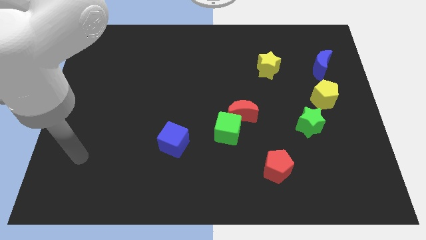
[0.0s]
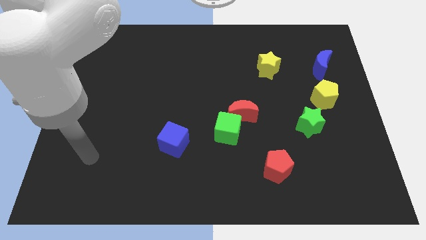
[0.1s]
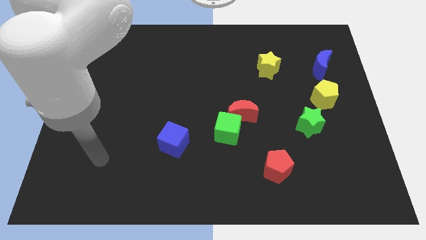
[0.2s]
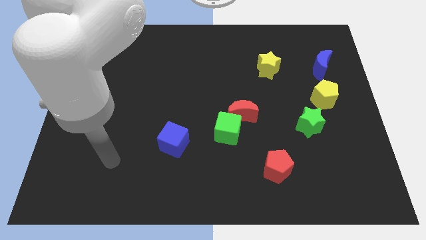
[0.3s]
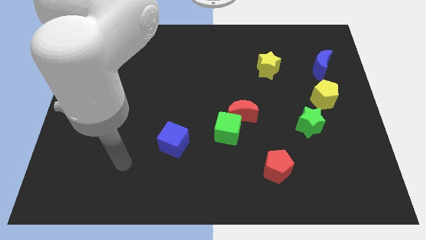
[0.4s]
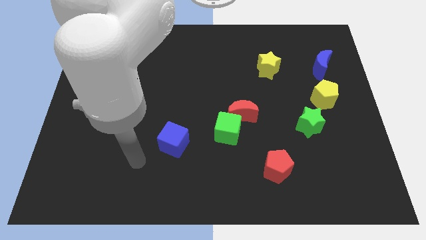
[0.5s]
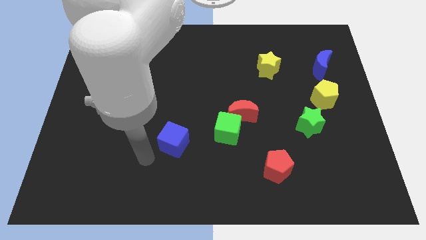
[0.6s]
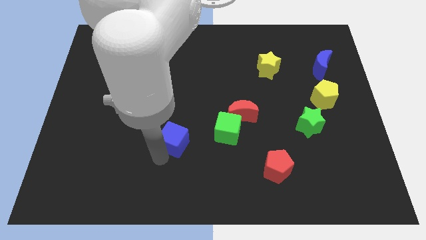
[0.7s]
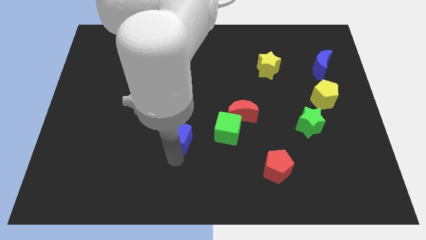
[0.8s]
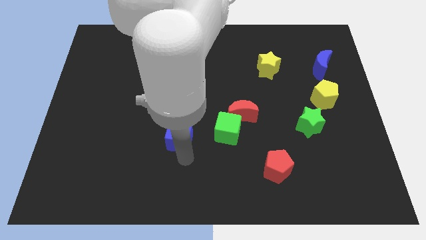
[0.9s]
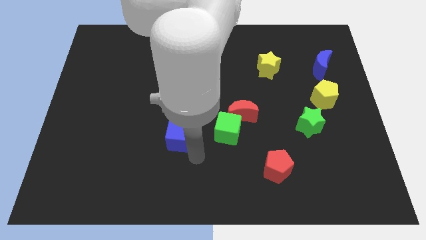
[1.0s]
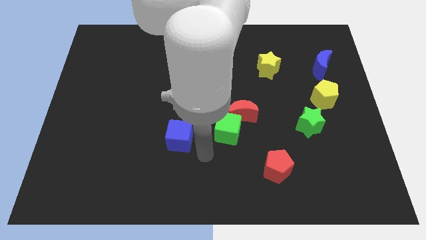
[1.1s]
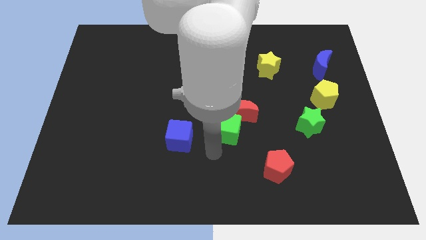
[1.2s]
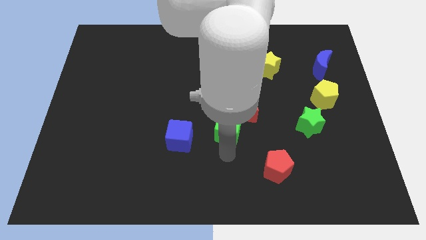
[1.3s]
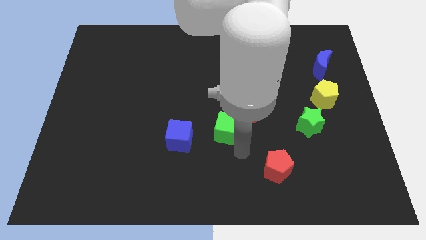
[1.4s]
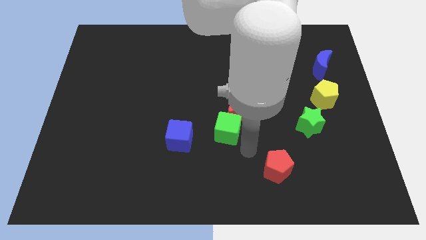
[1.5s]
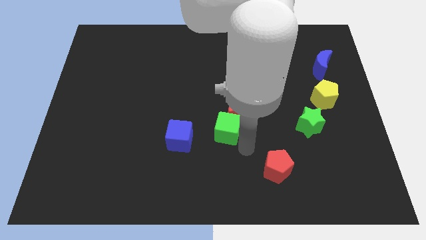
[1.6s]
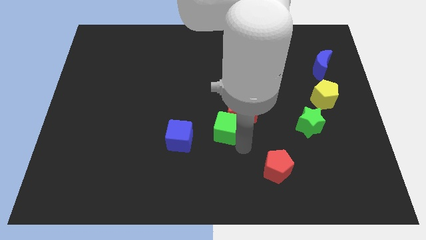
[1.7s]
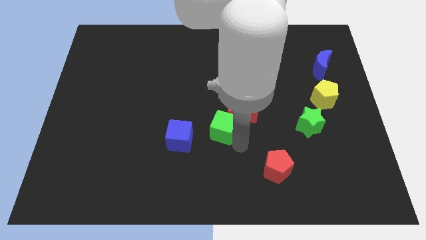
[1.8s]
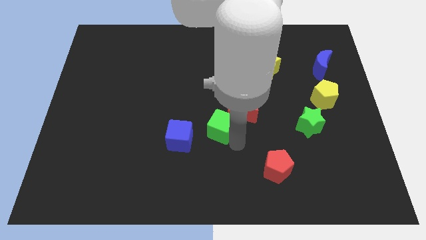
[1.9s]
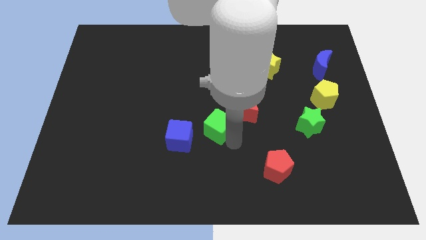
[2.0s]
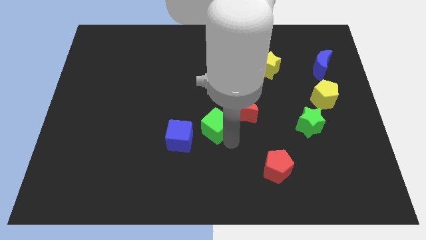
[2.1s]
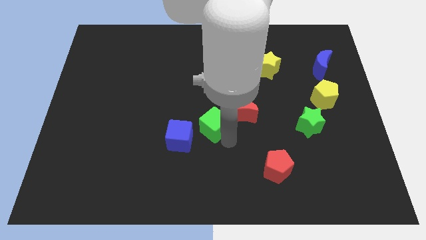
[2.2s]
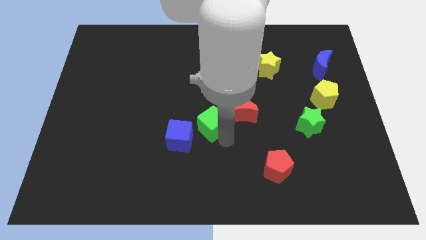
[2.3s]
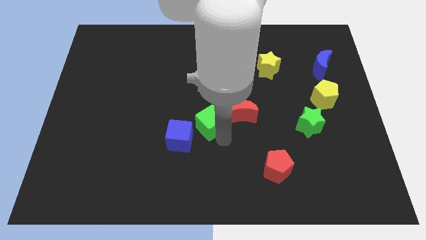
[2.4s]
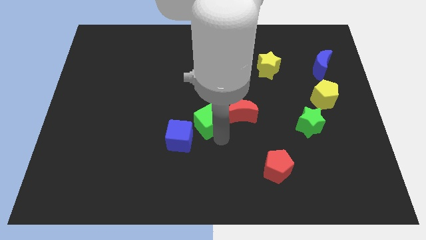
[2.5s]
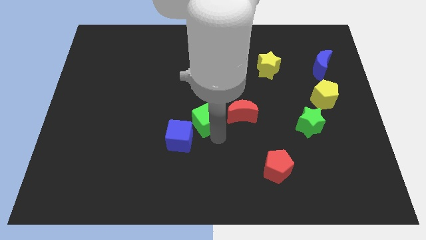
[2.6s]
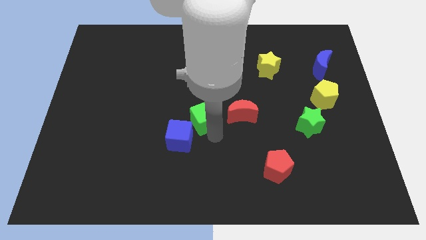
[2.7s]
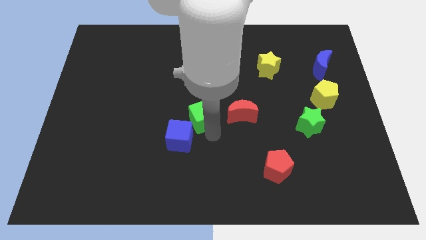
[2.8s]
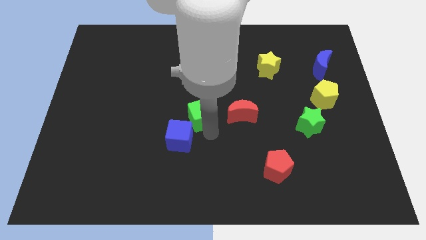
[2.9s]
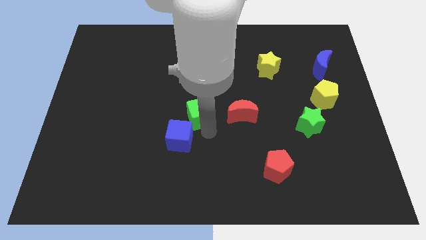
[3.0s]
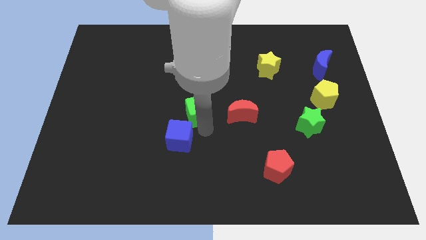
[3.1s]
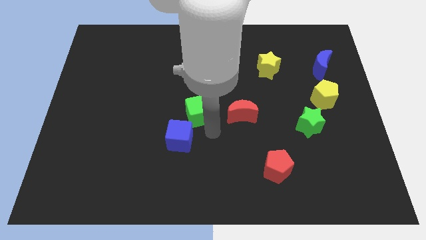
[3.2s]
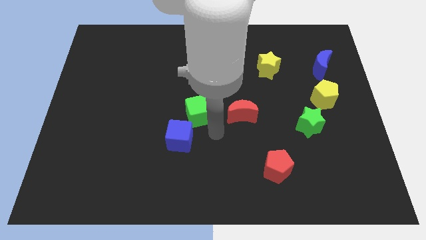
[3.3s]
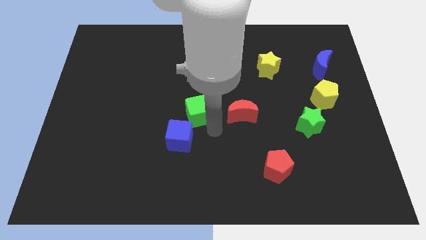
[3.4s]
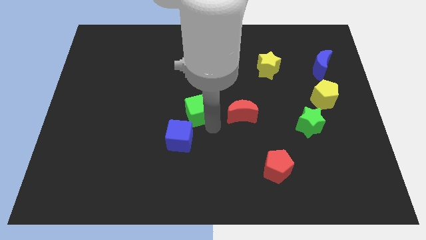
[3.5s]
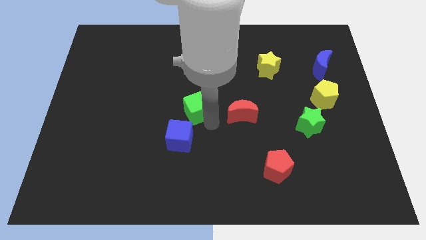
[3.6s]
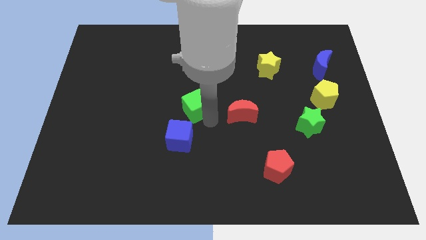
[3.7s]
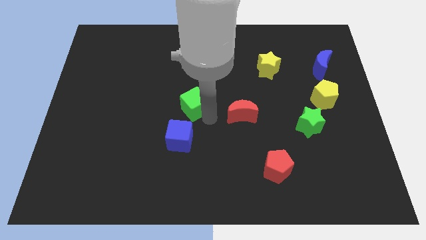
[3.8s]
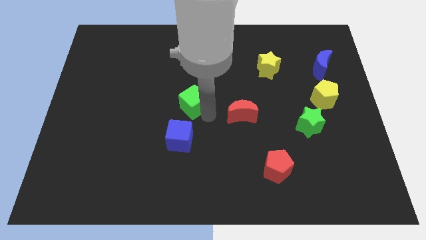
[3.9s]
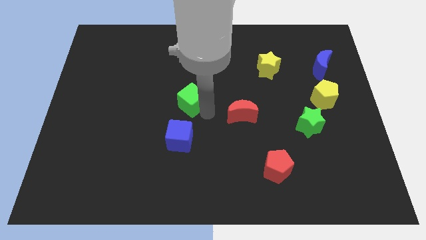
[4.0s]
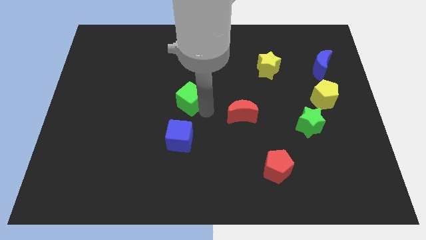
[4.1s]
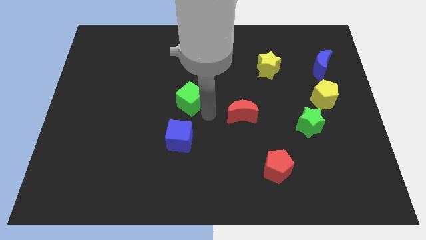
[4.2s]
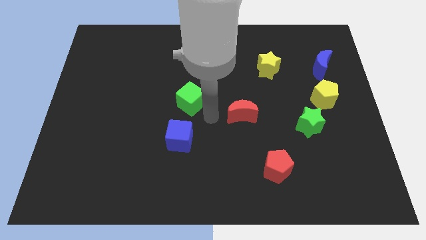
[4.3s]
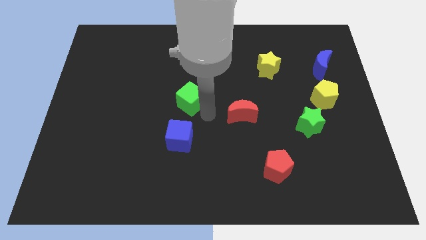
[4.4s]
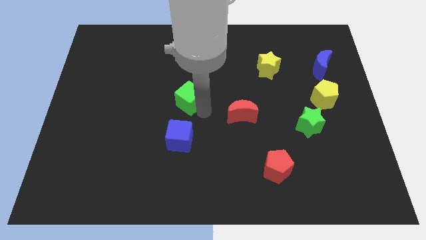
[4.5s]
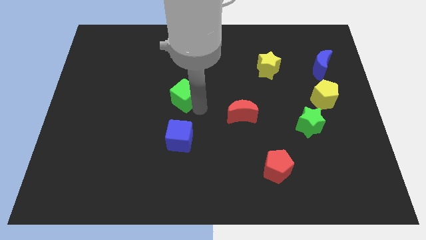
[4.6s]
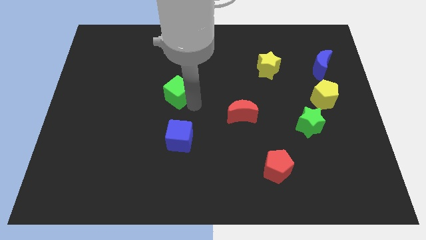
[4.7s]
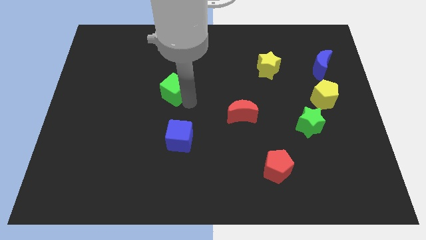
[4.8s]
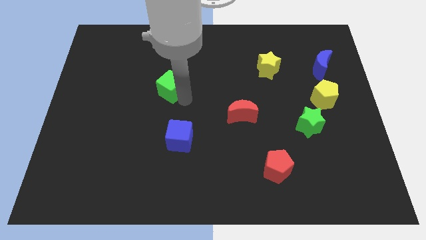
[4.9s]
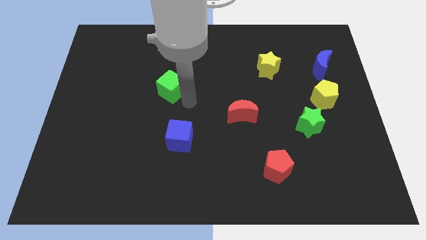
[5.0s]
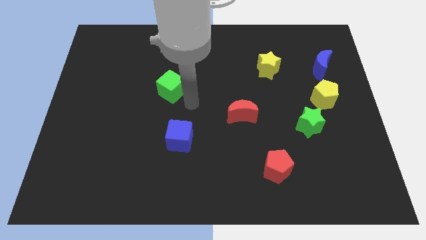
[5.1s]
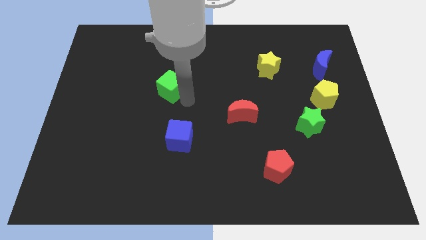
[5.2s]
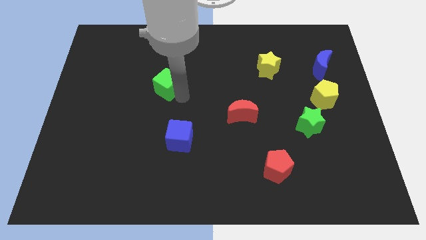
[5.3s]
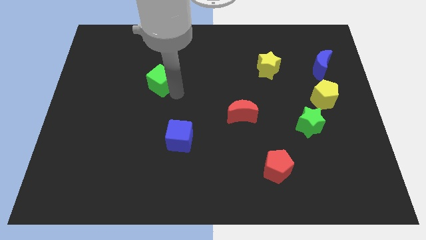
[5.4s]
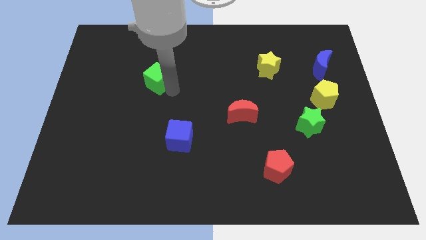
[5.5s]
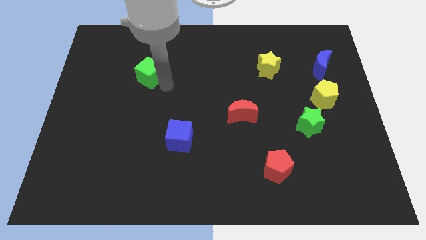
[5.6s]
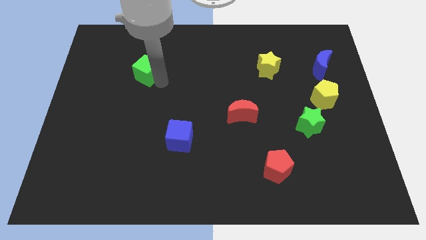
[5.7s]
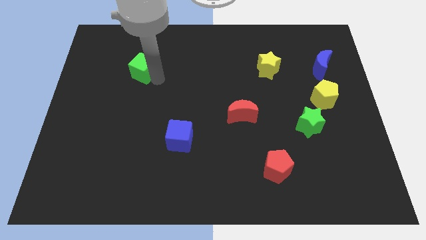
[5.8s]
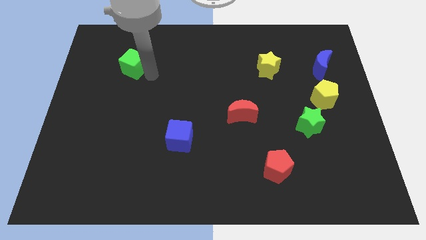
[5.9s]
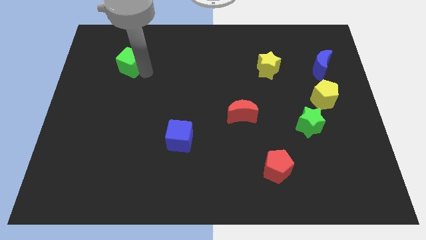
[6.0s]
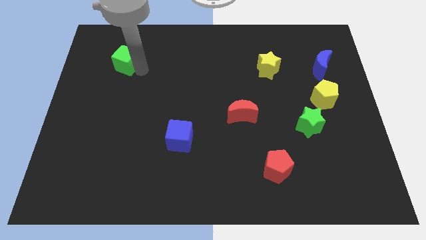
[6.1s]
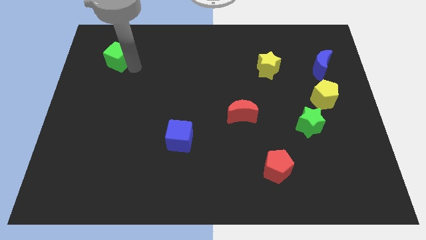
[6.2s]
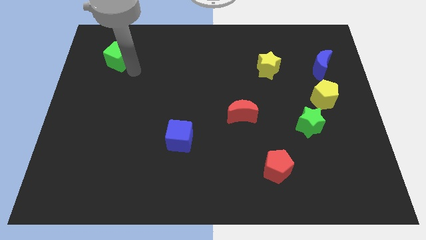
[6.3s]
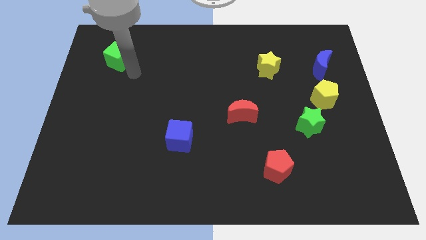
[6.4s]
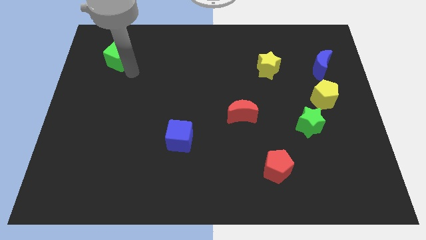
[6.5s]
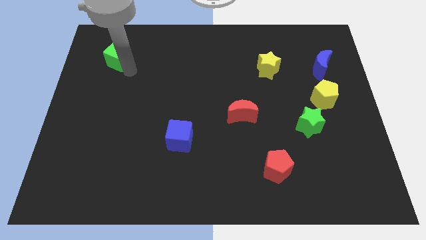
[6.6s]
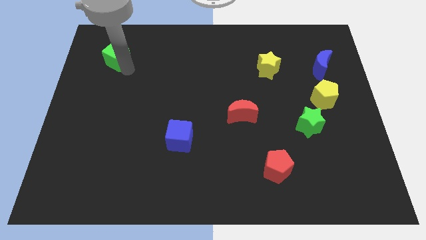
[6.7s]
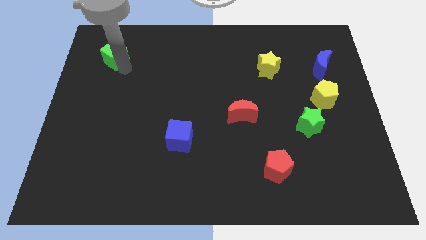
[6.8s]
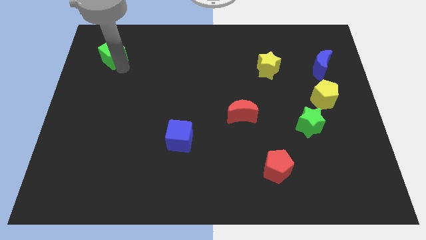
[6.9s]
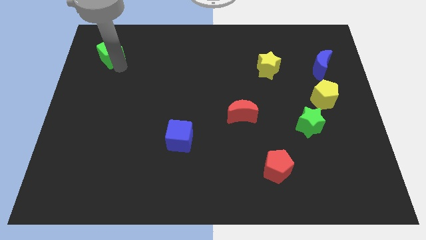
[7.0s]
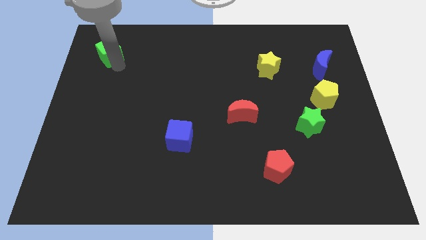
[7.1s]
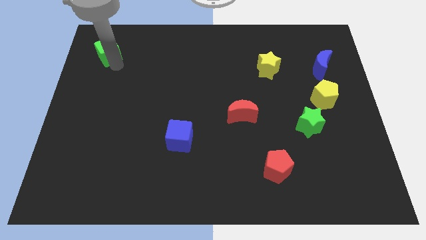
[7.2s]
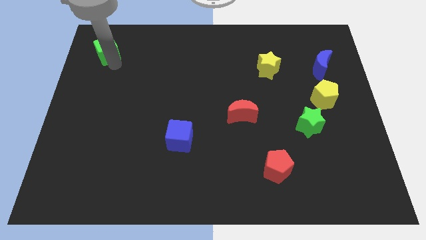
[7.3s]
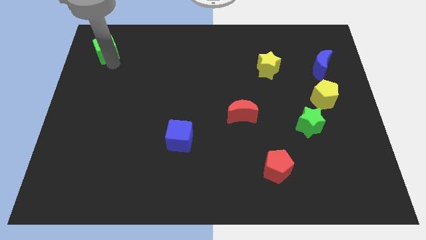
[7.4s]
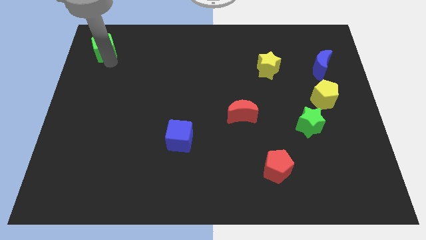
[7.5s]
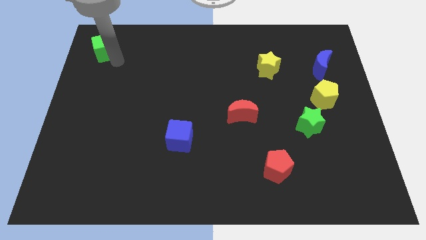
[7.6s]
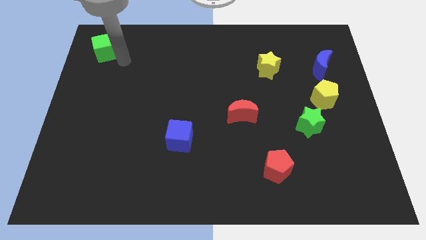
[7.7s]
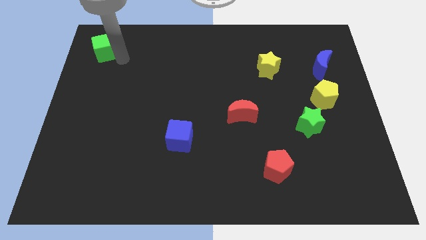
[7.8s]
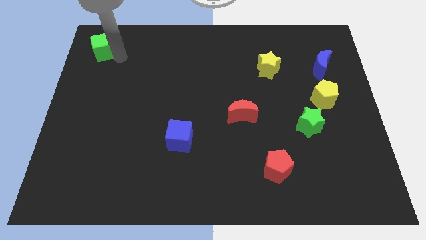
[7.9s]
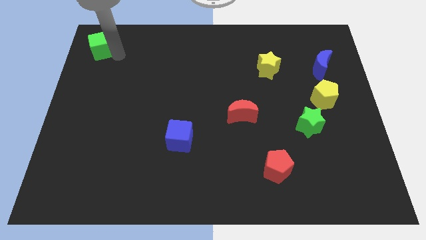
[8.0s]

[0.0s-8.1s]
slide the green cube to the upper left corner
